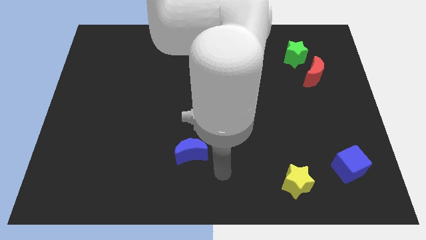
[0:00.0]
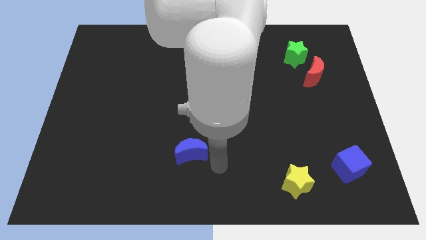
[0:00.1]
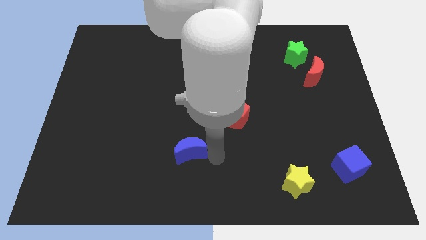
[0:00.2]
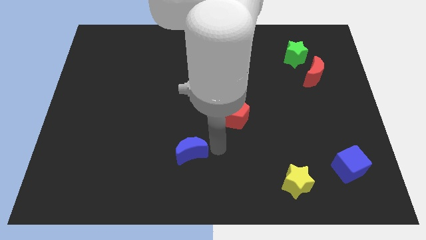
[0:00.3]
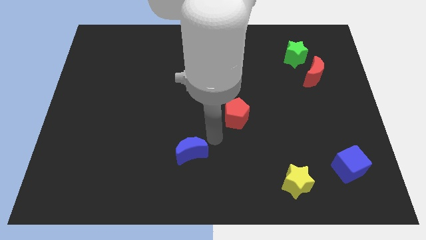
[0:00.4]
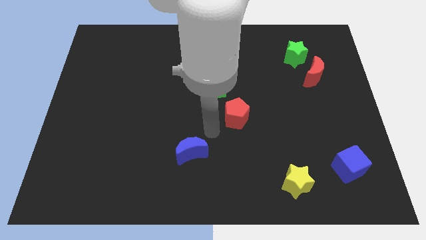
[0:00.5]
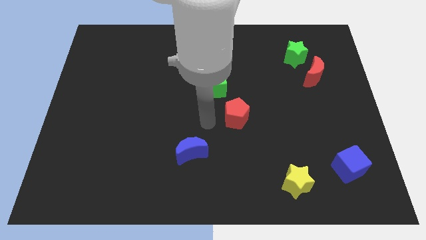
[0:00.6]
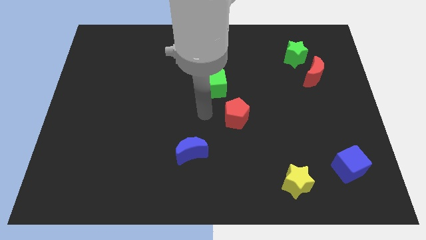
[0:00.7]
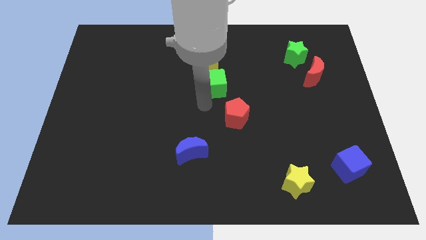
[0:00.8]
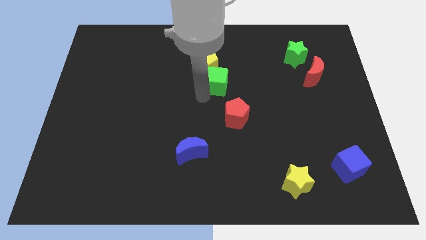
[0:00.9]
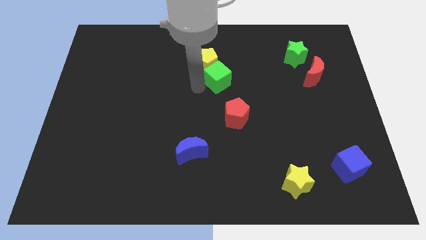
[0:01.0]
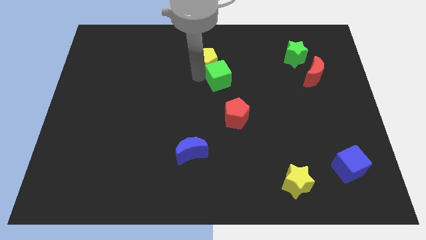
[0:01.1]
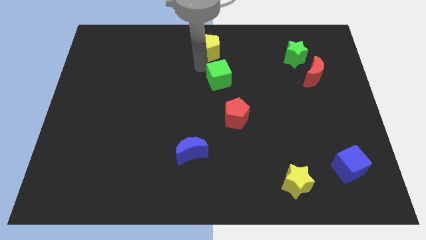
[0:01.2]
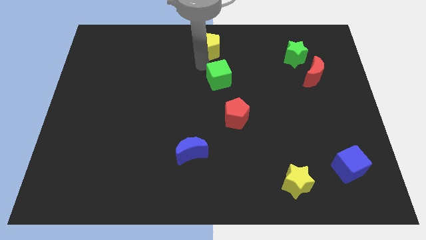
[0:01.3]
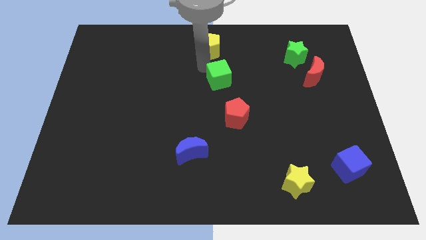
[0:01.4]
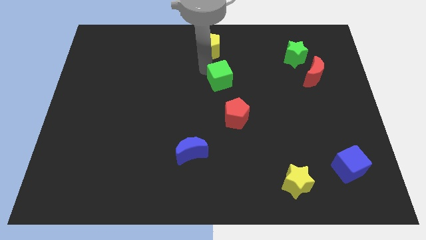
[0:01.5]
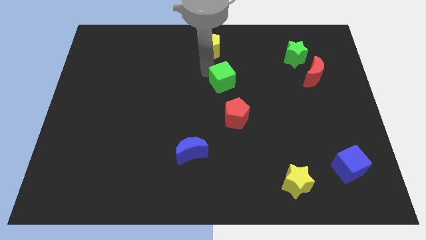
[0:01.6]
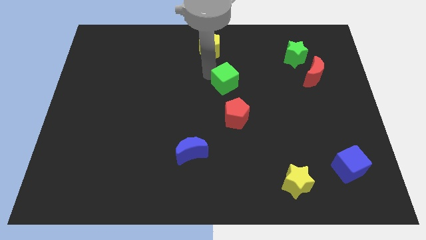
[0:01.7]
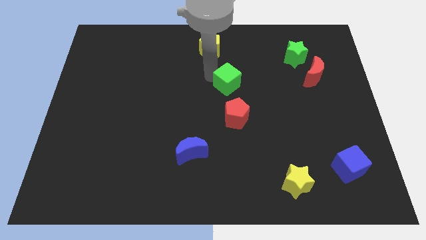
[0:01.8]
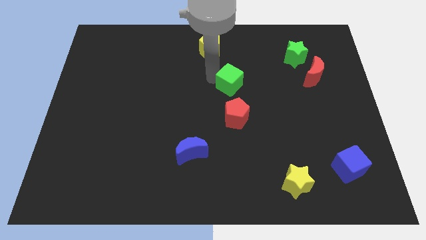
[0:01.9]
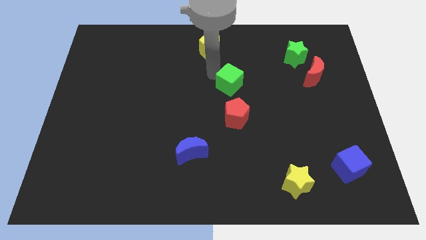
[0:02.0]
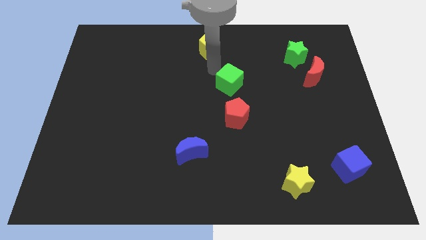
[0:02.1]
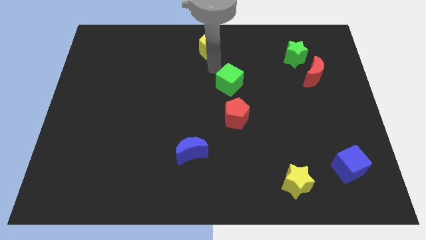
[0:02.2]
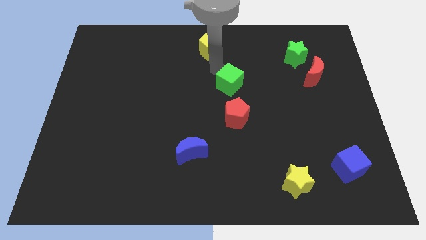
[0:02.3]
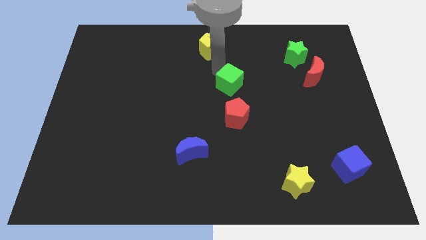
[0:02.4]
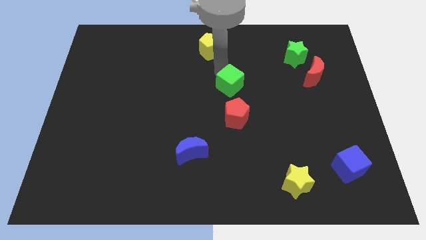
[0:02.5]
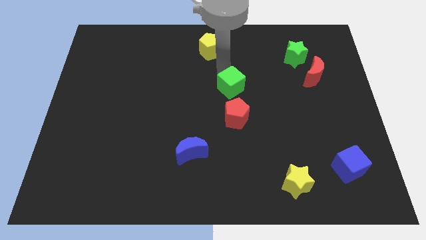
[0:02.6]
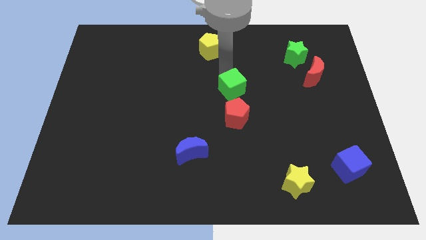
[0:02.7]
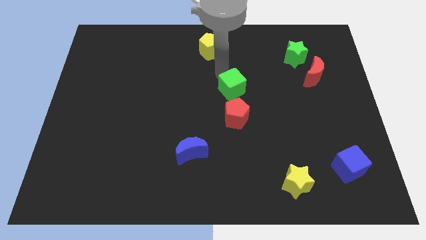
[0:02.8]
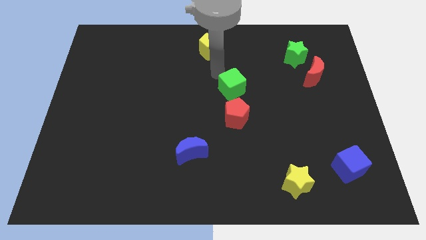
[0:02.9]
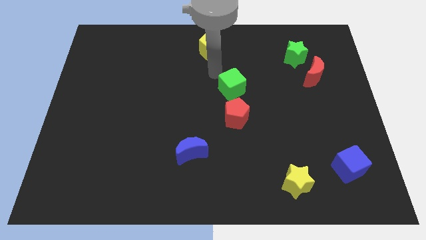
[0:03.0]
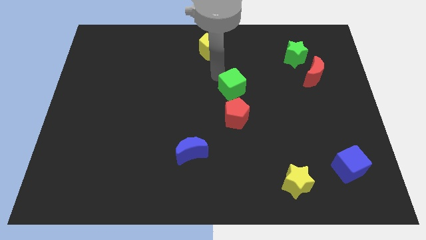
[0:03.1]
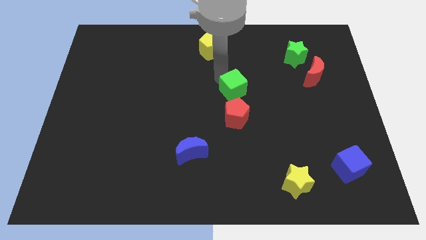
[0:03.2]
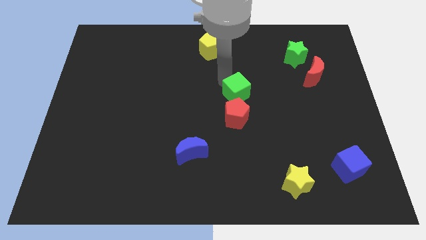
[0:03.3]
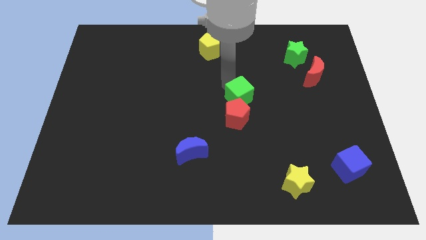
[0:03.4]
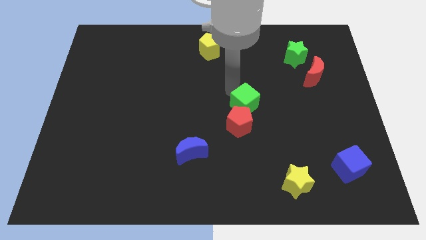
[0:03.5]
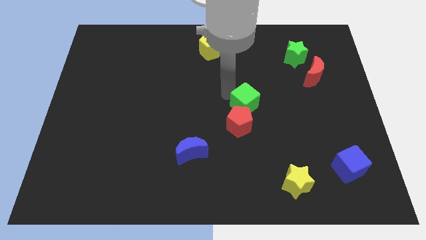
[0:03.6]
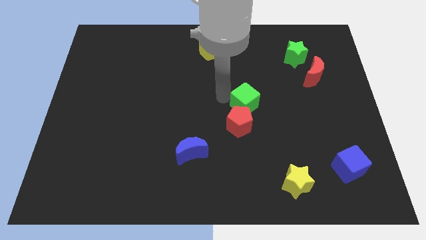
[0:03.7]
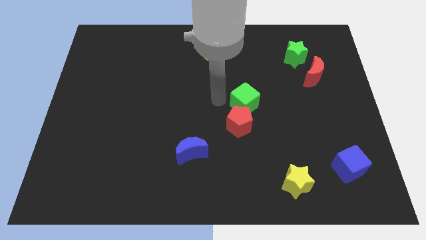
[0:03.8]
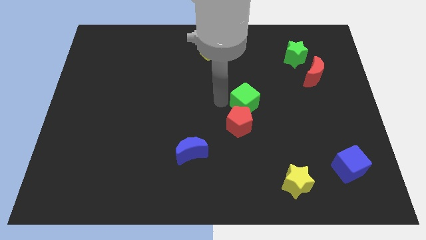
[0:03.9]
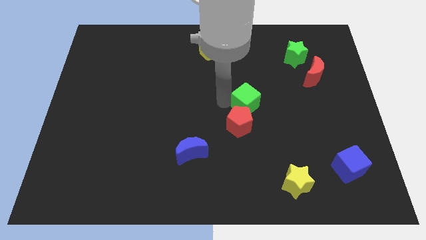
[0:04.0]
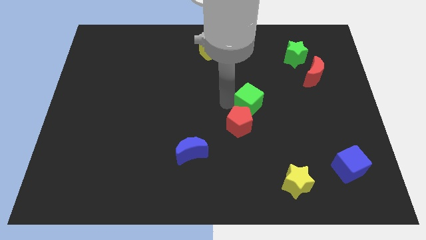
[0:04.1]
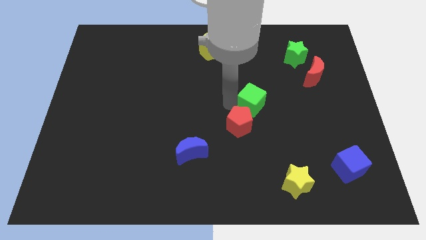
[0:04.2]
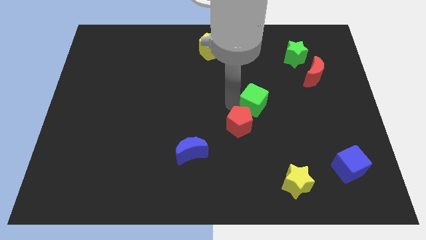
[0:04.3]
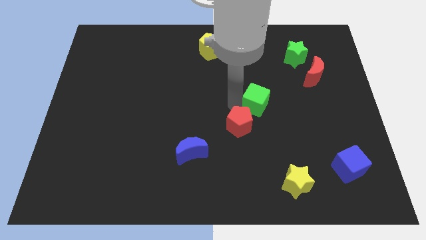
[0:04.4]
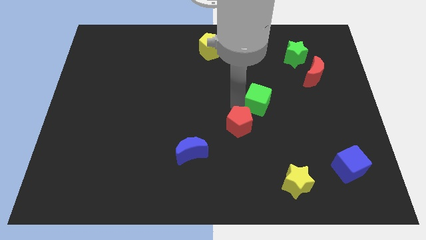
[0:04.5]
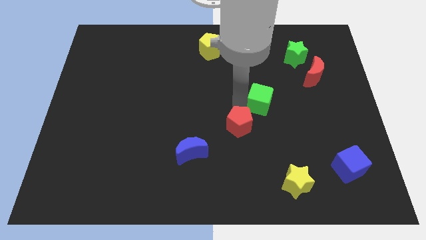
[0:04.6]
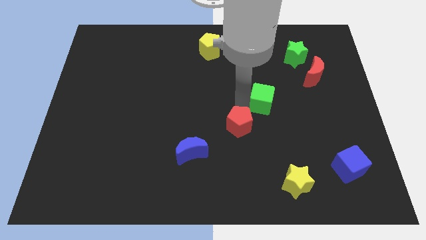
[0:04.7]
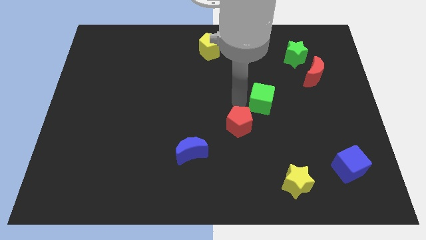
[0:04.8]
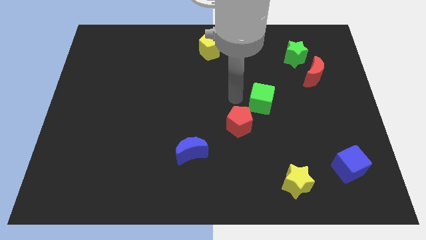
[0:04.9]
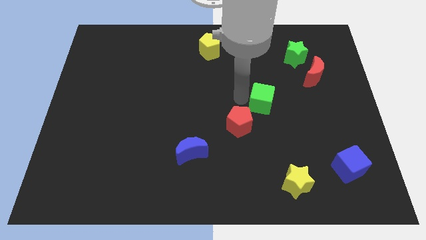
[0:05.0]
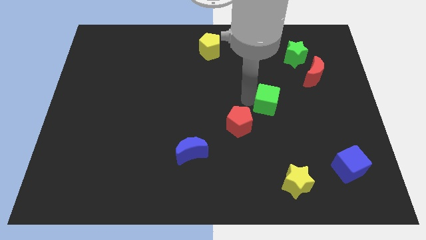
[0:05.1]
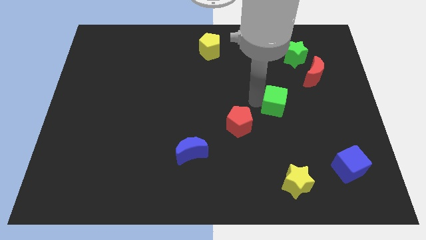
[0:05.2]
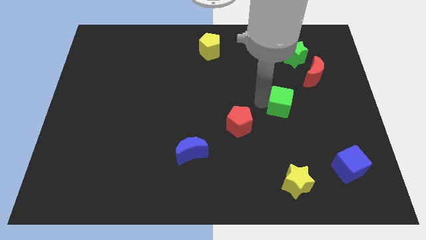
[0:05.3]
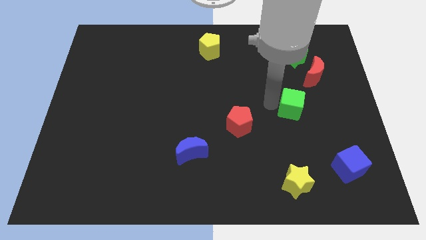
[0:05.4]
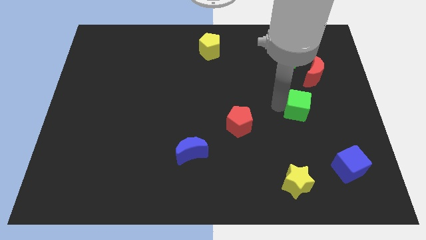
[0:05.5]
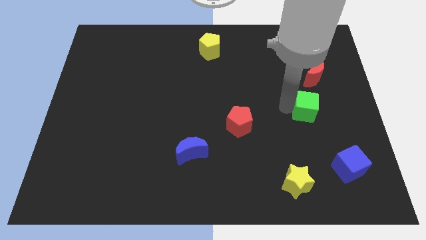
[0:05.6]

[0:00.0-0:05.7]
slide the green cube to the bottom of the red moon

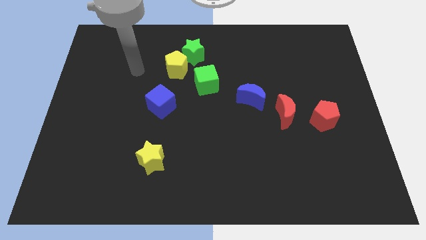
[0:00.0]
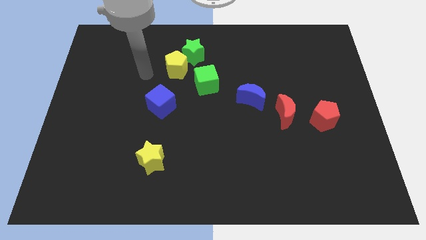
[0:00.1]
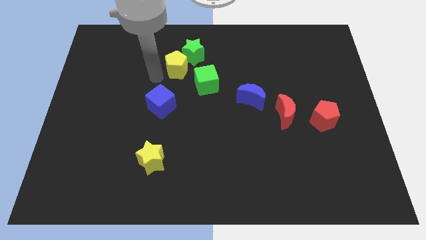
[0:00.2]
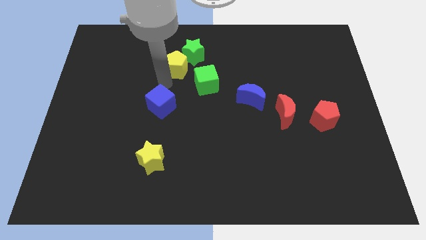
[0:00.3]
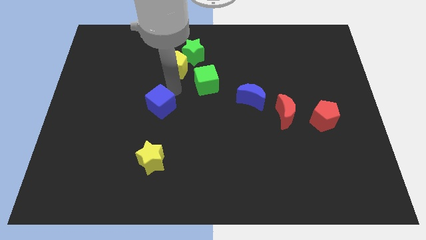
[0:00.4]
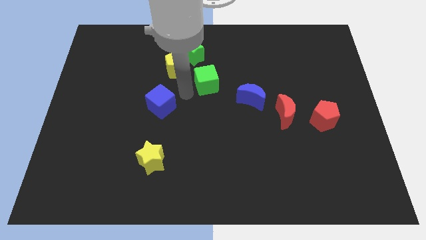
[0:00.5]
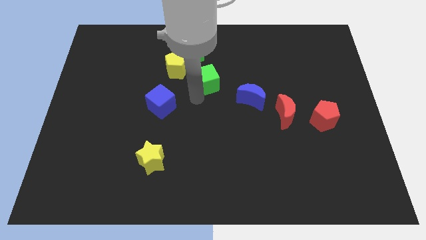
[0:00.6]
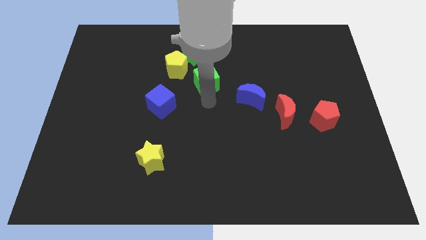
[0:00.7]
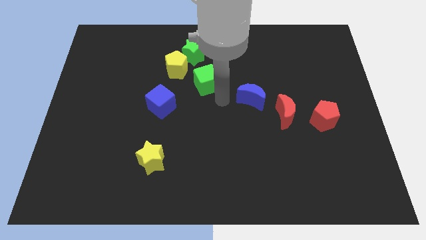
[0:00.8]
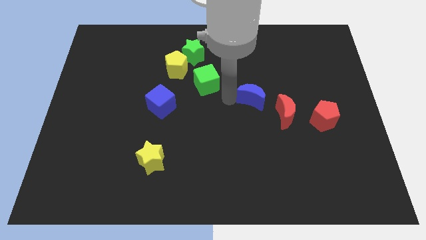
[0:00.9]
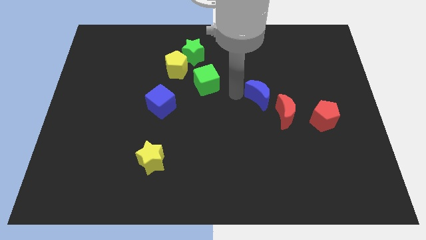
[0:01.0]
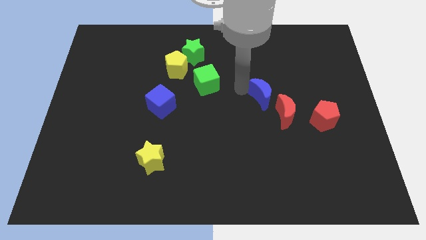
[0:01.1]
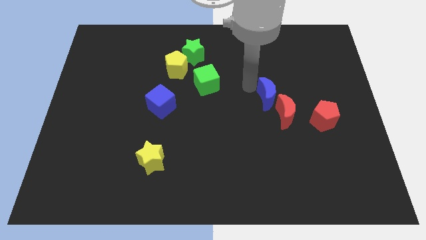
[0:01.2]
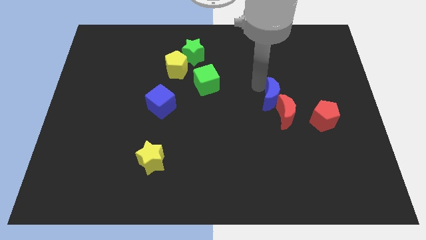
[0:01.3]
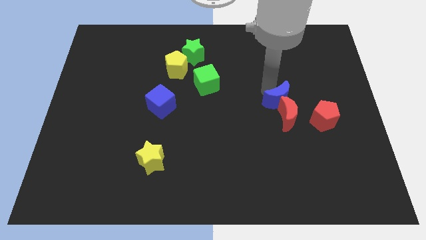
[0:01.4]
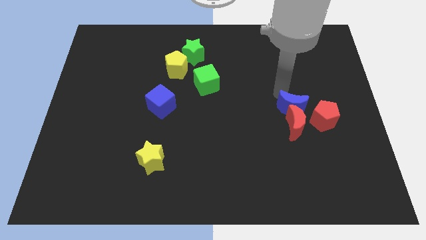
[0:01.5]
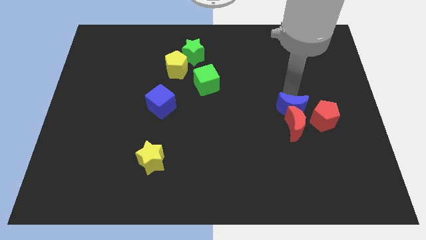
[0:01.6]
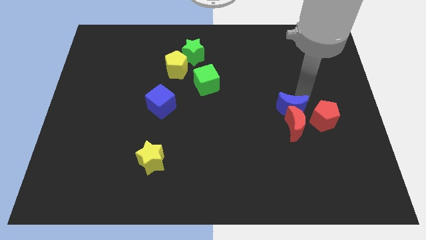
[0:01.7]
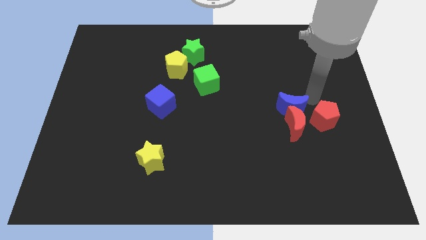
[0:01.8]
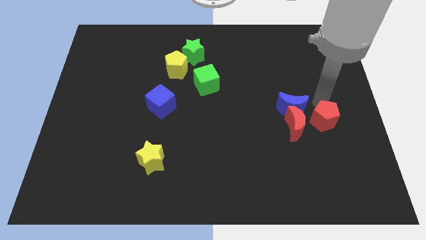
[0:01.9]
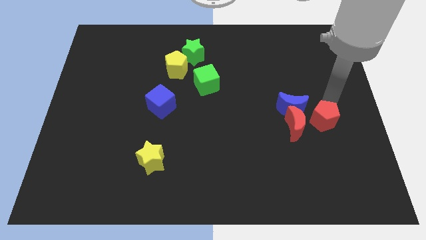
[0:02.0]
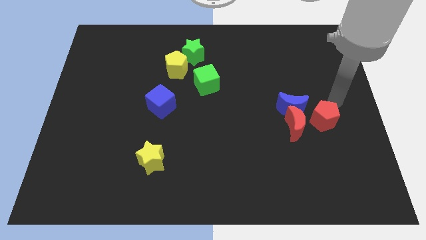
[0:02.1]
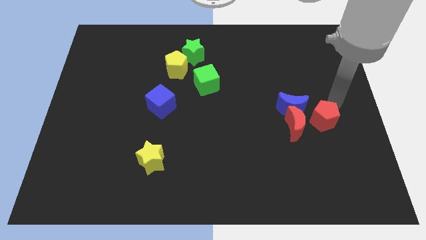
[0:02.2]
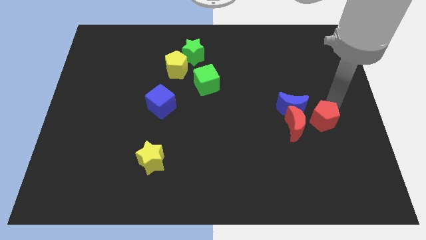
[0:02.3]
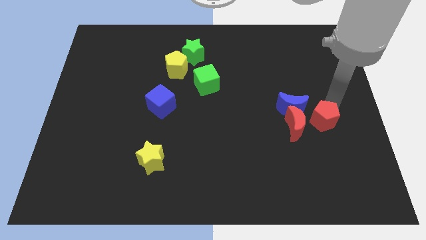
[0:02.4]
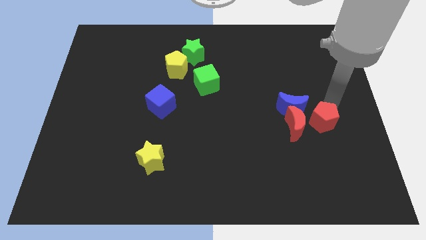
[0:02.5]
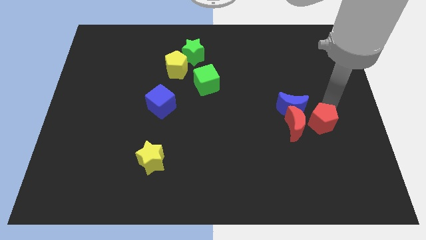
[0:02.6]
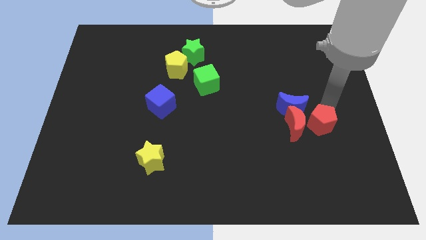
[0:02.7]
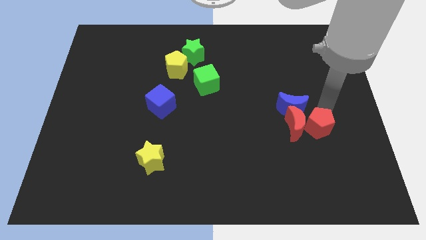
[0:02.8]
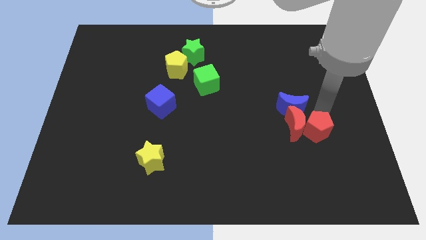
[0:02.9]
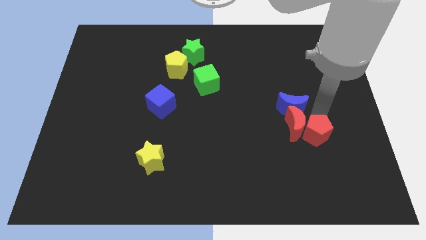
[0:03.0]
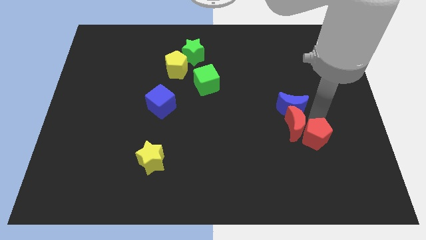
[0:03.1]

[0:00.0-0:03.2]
put the red pentagon below the red moon
